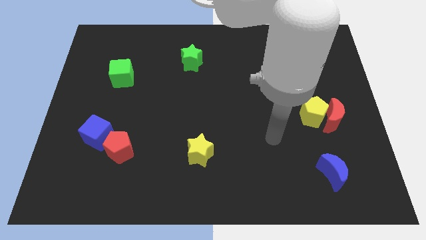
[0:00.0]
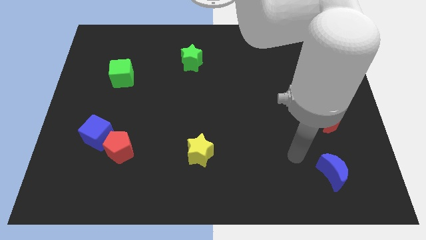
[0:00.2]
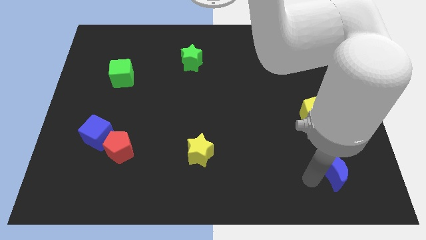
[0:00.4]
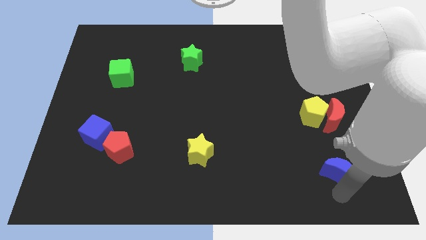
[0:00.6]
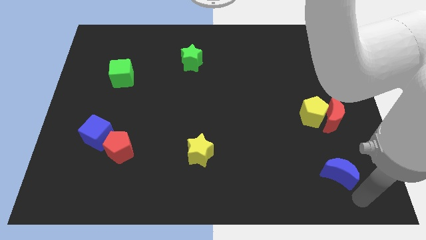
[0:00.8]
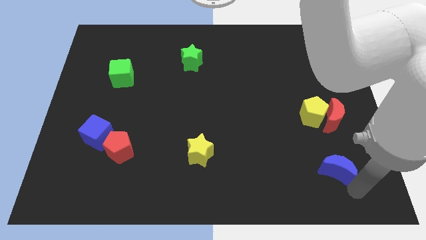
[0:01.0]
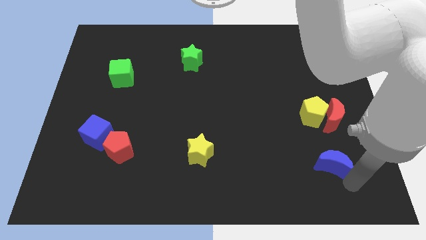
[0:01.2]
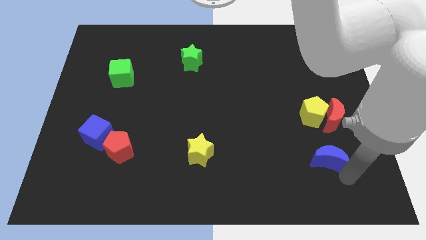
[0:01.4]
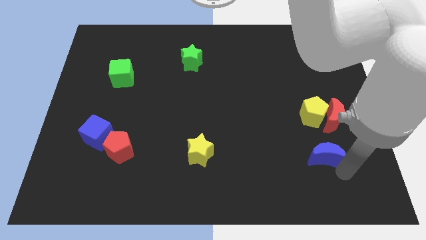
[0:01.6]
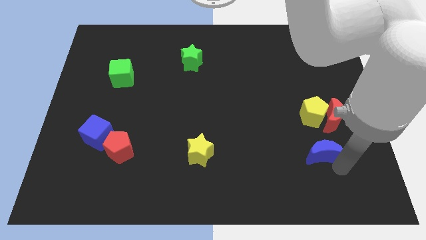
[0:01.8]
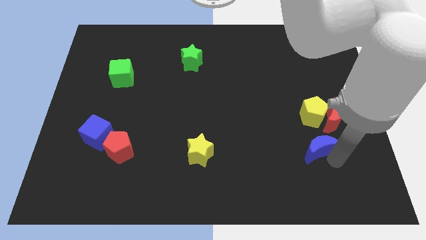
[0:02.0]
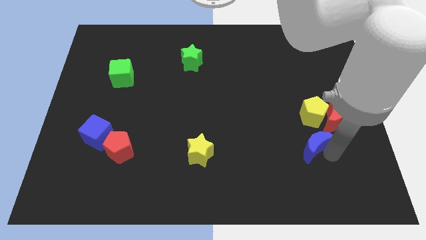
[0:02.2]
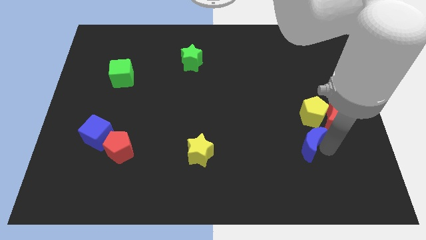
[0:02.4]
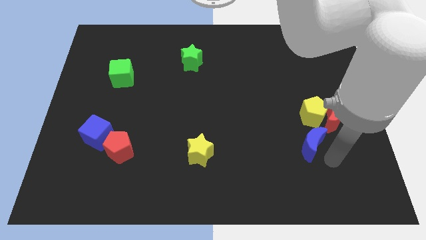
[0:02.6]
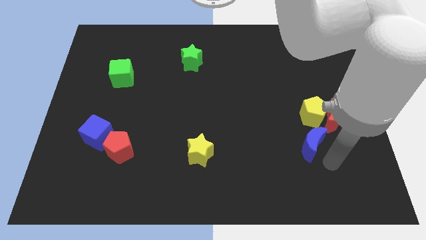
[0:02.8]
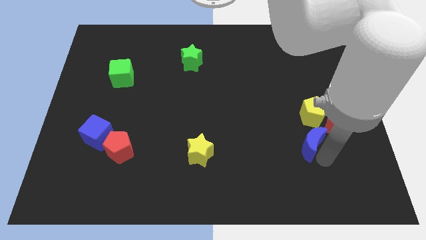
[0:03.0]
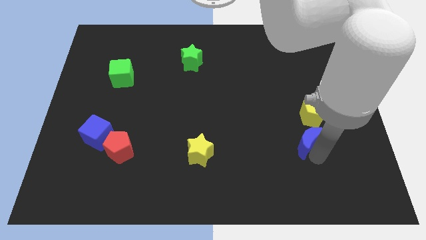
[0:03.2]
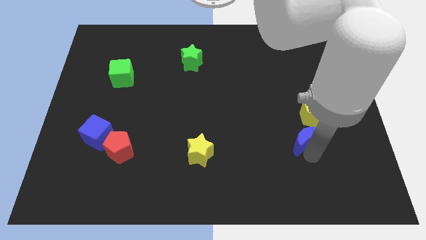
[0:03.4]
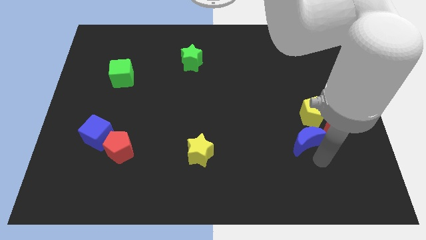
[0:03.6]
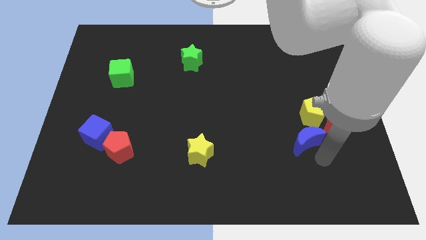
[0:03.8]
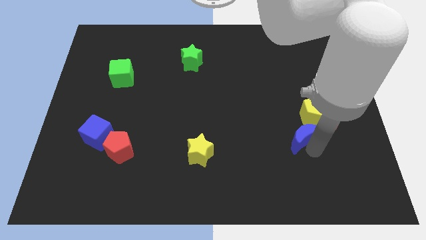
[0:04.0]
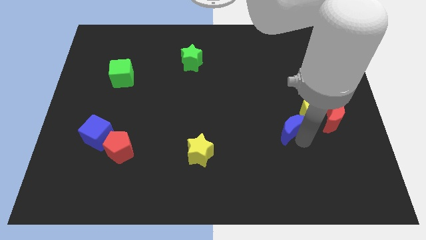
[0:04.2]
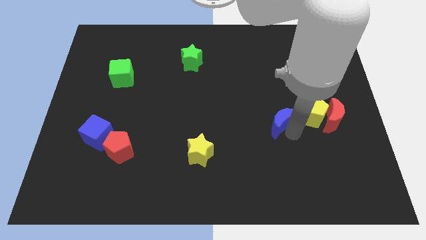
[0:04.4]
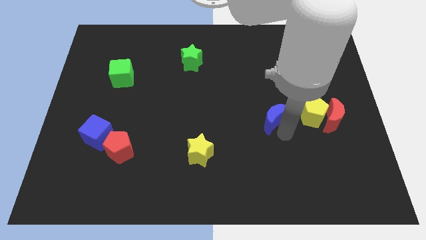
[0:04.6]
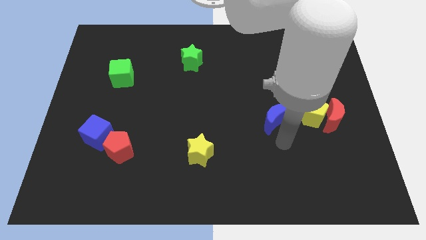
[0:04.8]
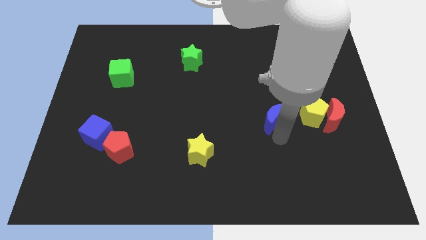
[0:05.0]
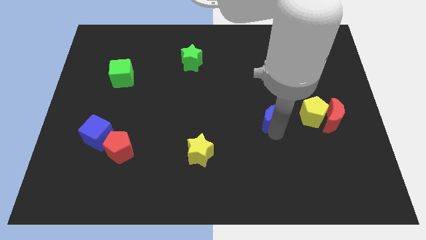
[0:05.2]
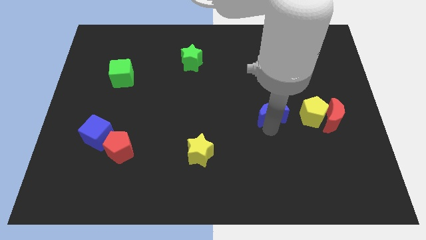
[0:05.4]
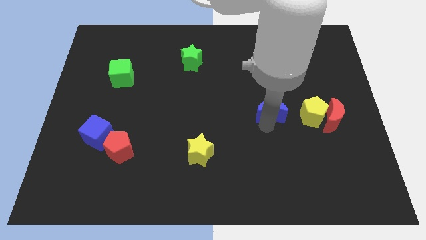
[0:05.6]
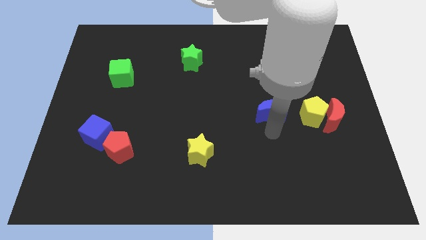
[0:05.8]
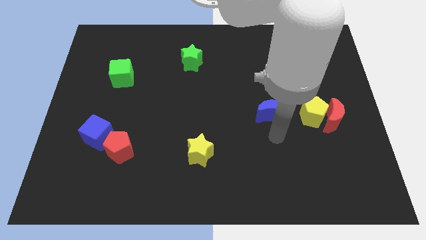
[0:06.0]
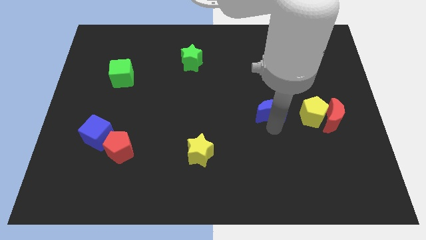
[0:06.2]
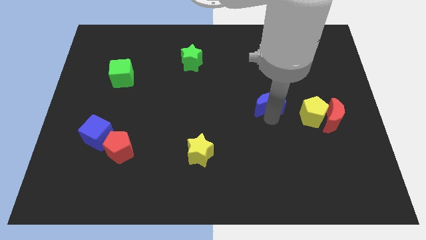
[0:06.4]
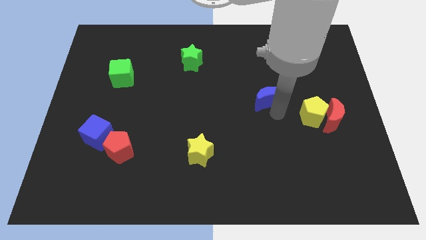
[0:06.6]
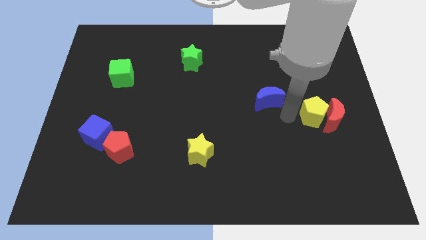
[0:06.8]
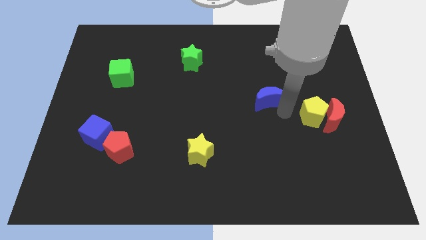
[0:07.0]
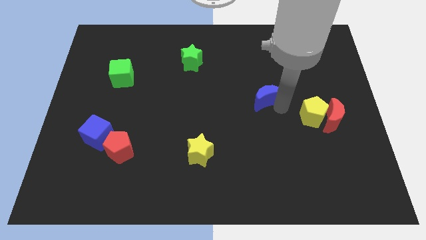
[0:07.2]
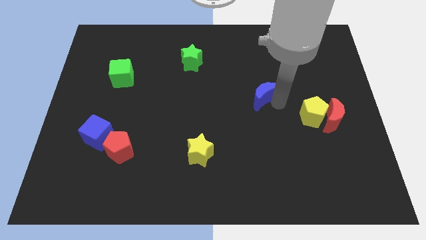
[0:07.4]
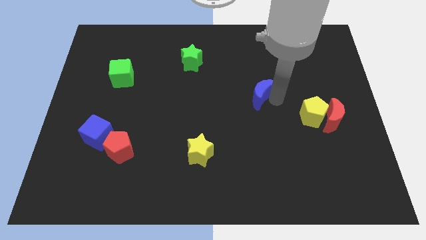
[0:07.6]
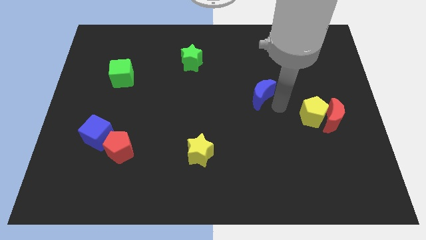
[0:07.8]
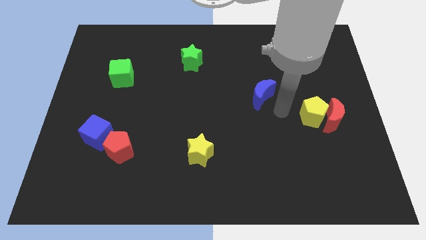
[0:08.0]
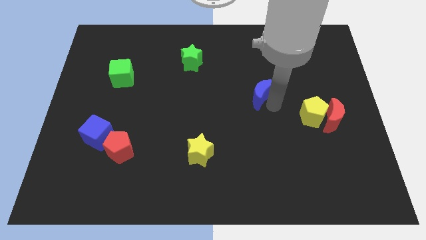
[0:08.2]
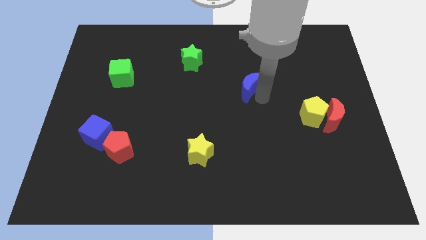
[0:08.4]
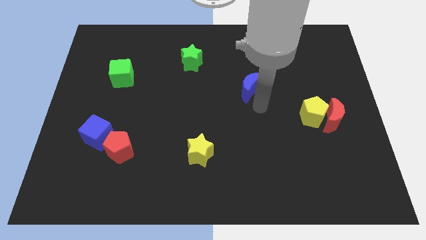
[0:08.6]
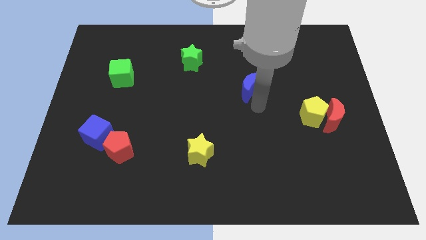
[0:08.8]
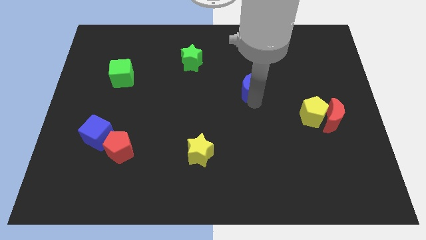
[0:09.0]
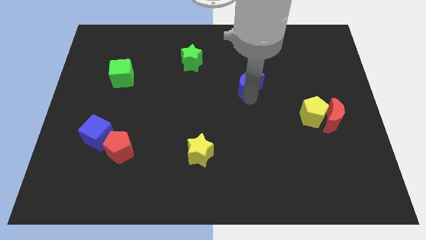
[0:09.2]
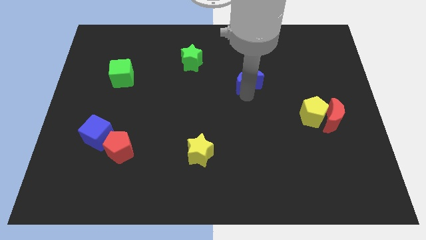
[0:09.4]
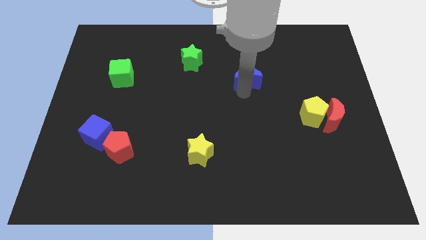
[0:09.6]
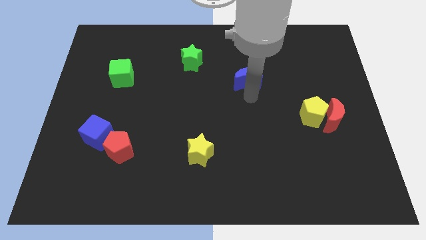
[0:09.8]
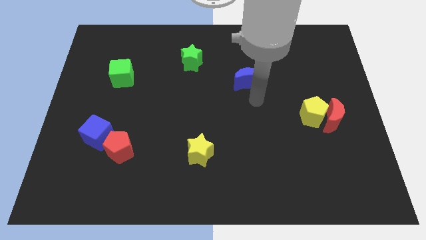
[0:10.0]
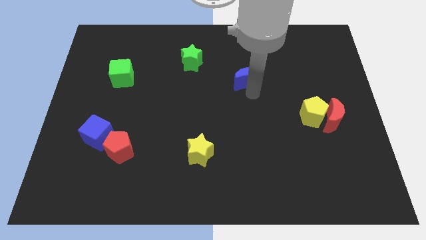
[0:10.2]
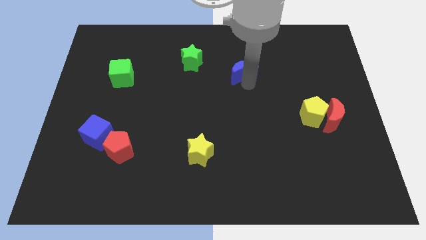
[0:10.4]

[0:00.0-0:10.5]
move the blue moon to the right of the green star

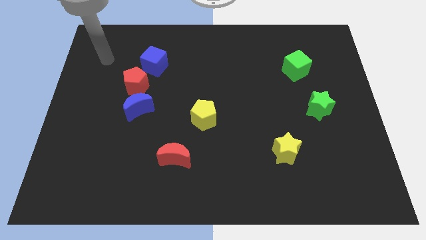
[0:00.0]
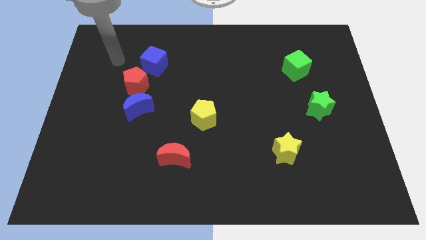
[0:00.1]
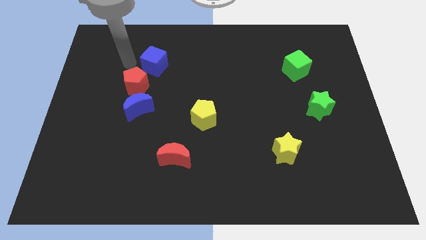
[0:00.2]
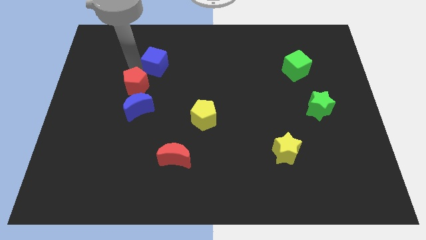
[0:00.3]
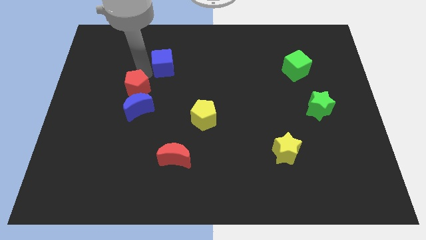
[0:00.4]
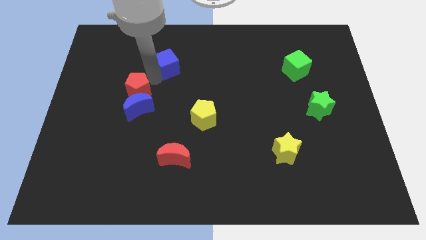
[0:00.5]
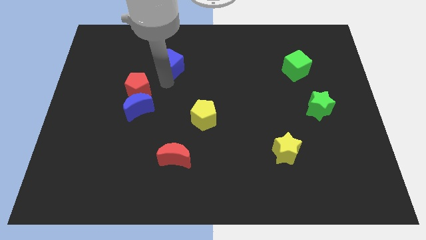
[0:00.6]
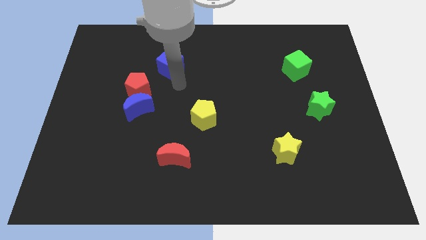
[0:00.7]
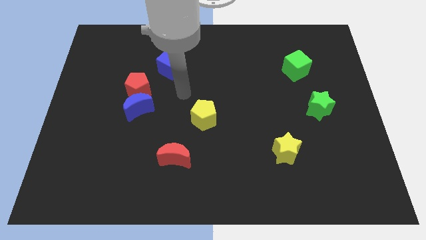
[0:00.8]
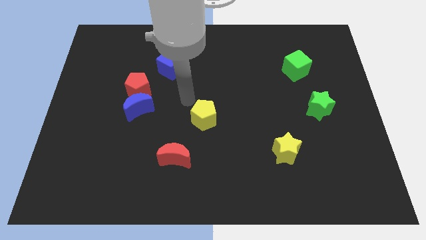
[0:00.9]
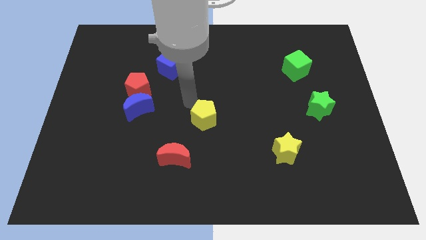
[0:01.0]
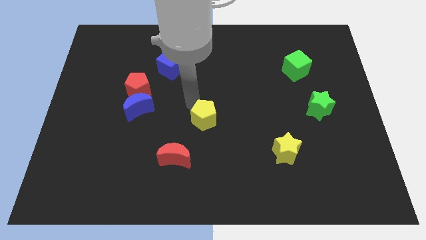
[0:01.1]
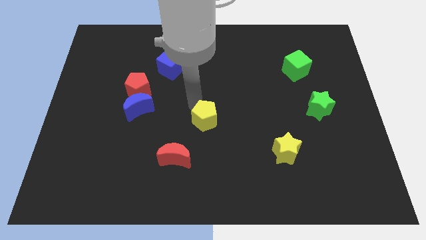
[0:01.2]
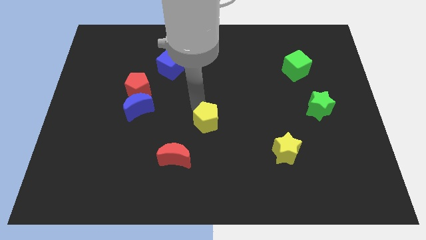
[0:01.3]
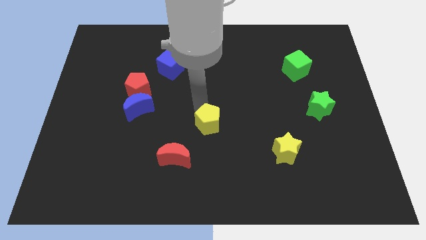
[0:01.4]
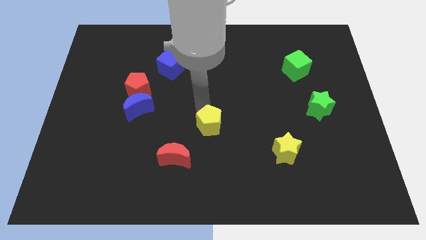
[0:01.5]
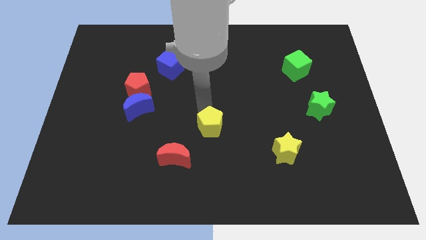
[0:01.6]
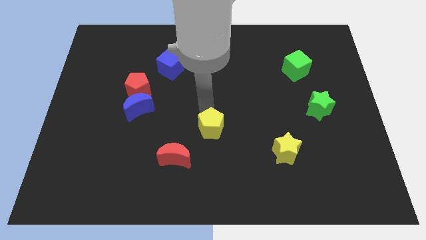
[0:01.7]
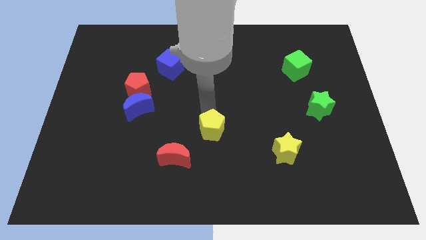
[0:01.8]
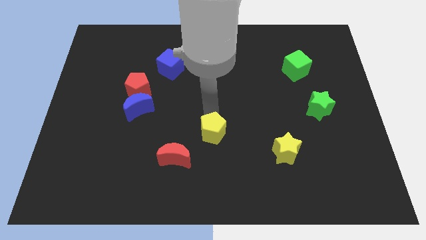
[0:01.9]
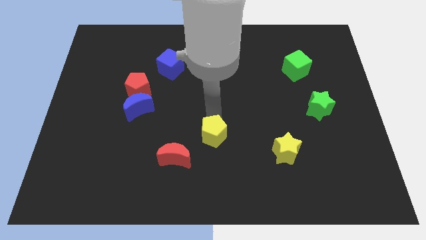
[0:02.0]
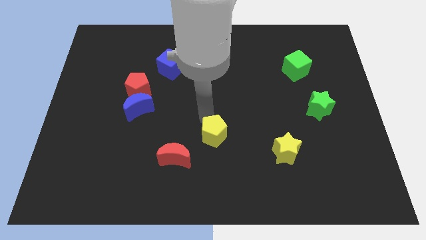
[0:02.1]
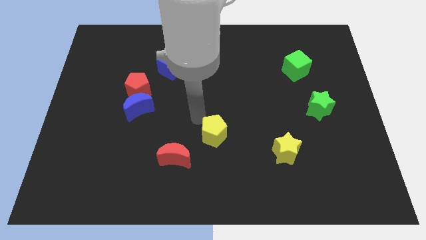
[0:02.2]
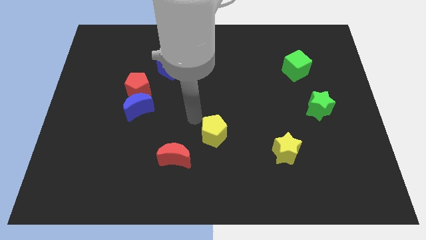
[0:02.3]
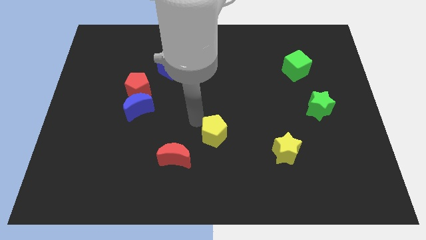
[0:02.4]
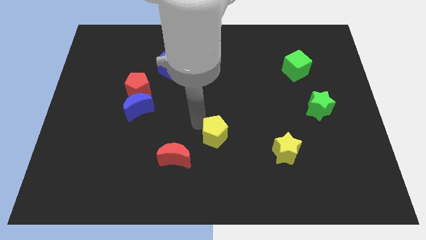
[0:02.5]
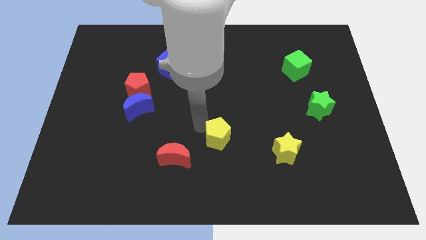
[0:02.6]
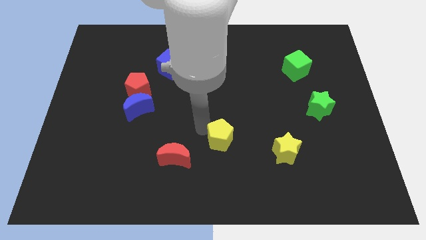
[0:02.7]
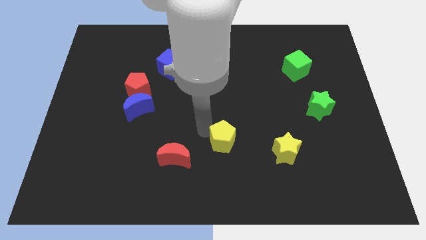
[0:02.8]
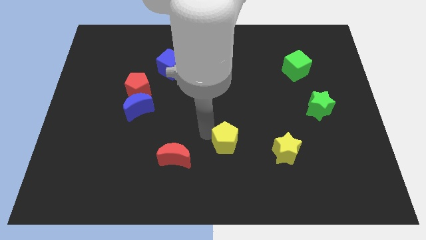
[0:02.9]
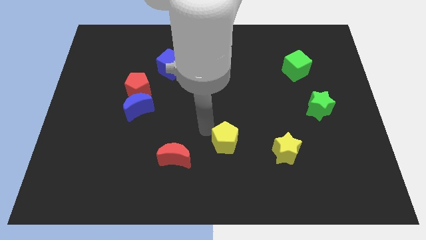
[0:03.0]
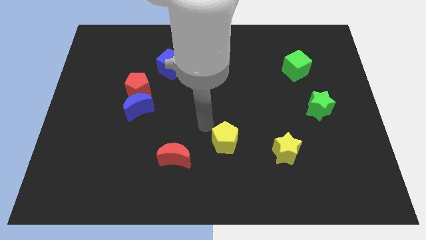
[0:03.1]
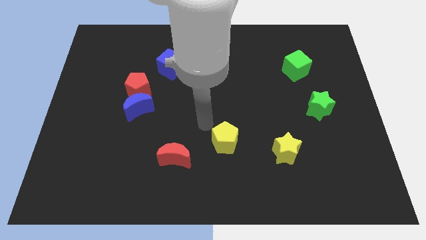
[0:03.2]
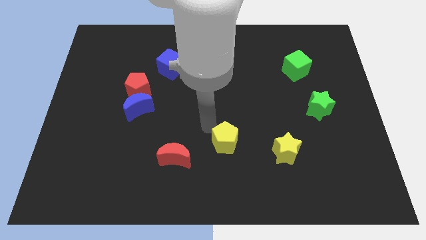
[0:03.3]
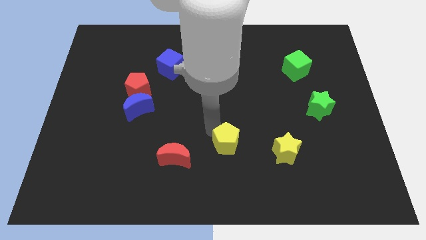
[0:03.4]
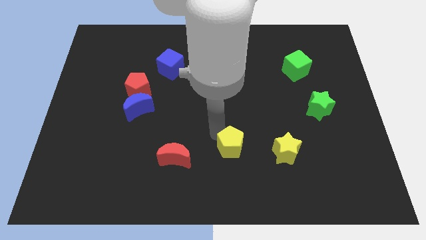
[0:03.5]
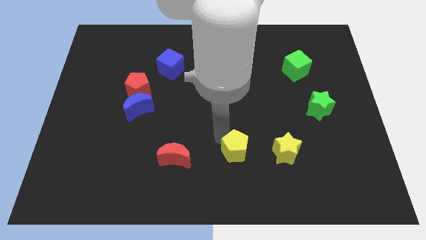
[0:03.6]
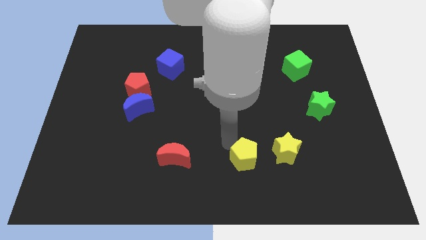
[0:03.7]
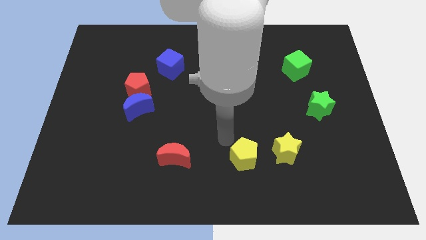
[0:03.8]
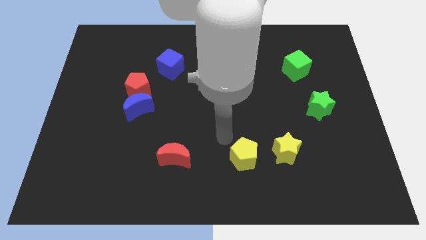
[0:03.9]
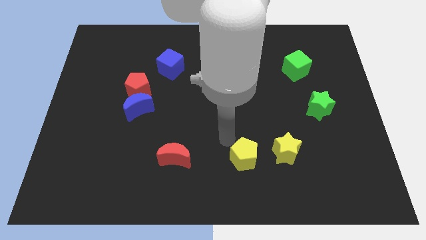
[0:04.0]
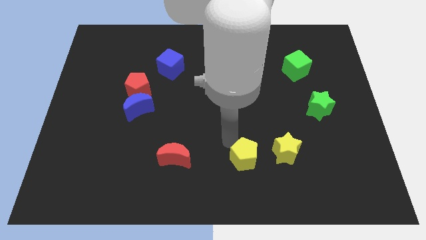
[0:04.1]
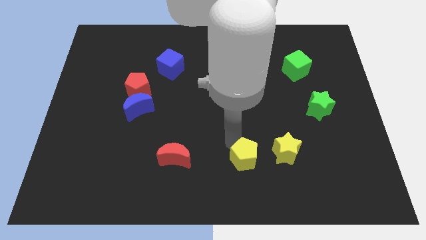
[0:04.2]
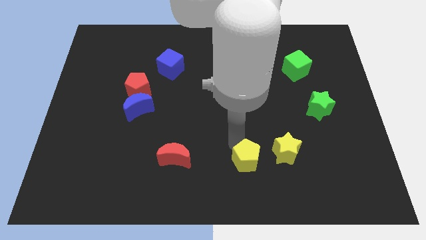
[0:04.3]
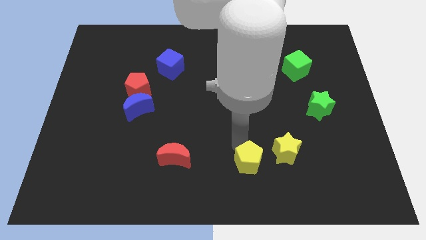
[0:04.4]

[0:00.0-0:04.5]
slide the yellow pentagon to the bottom left side of the yellow star
